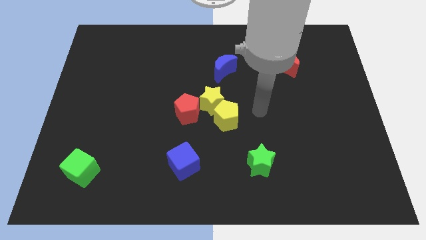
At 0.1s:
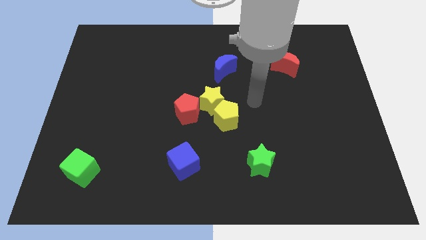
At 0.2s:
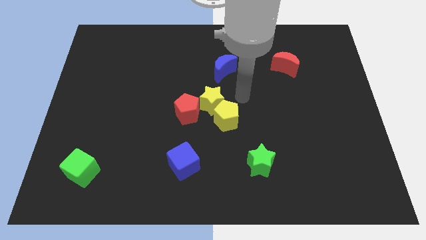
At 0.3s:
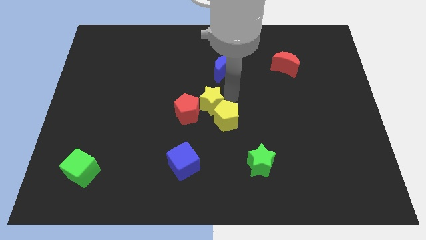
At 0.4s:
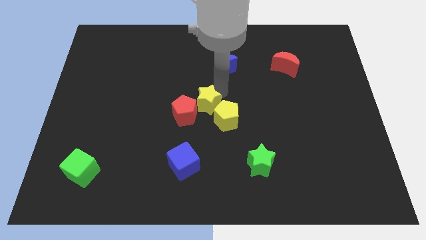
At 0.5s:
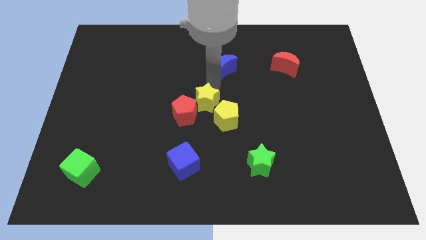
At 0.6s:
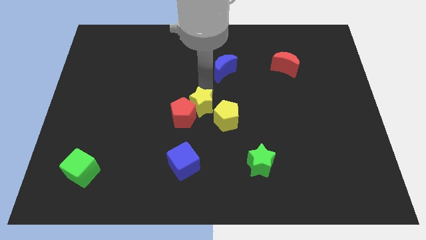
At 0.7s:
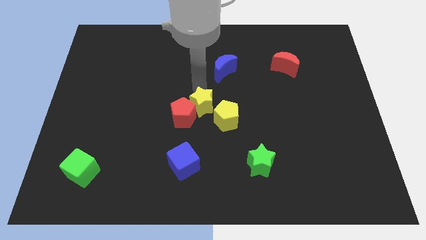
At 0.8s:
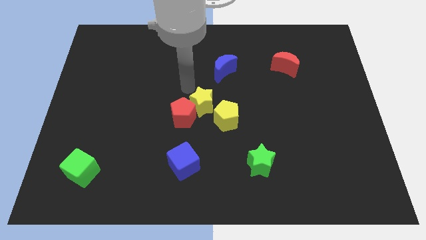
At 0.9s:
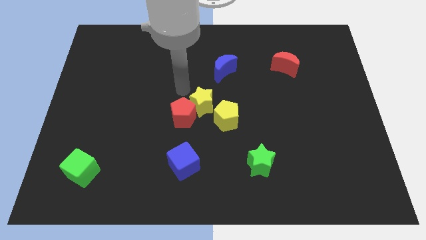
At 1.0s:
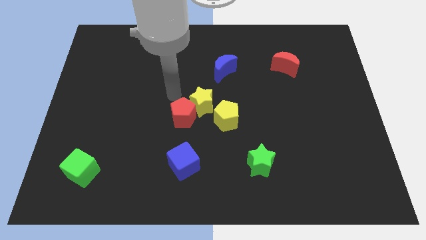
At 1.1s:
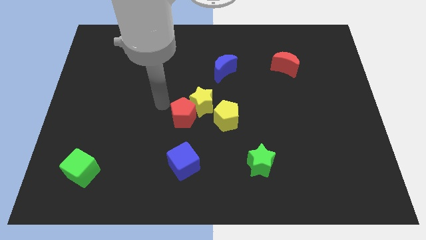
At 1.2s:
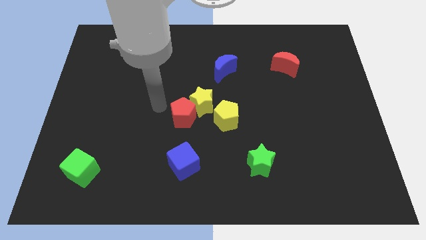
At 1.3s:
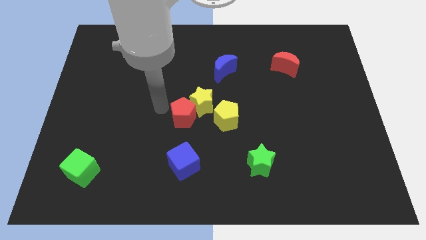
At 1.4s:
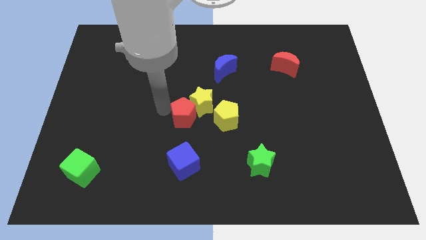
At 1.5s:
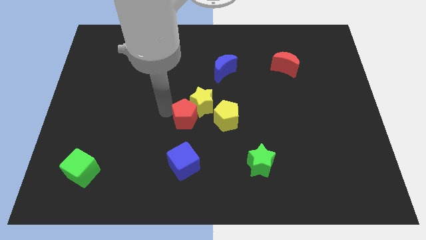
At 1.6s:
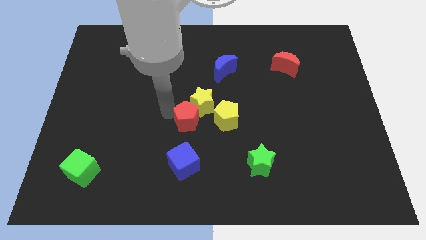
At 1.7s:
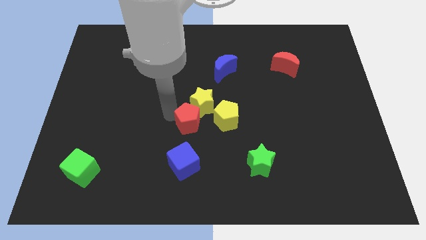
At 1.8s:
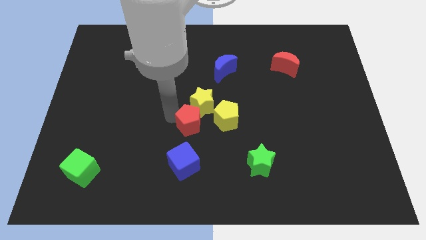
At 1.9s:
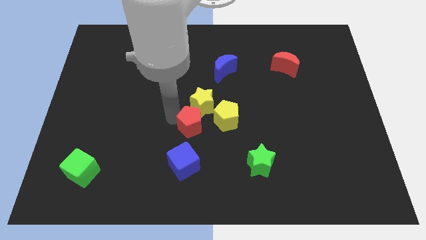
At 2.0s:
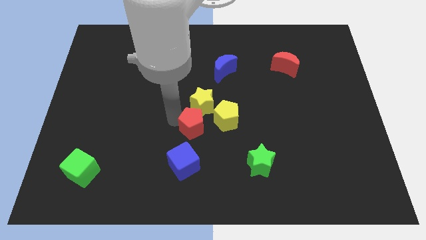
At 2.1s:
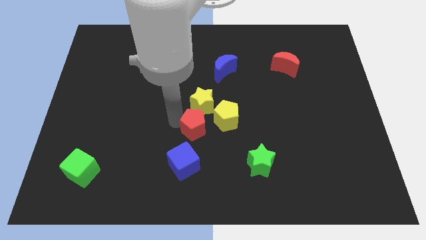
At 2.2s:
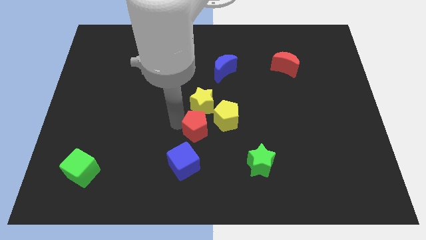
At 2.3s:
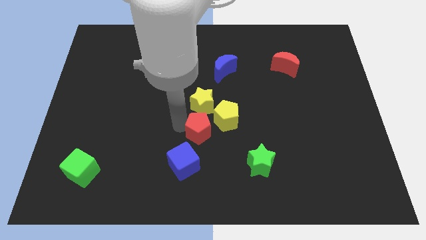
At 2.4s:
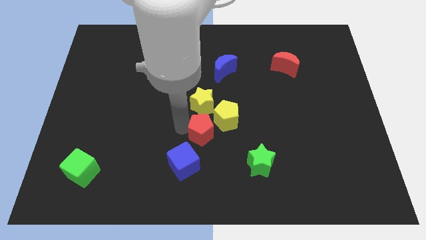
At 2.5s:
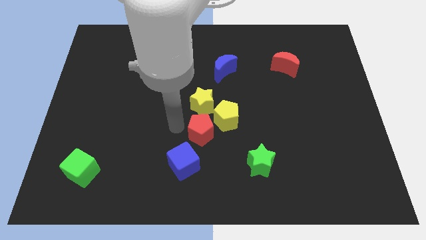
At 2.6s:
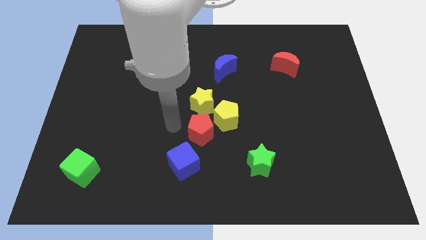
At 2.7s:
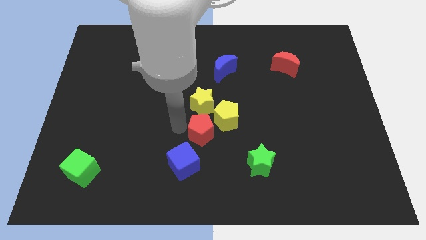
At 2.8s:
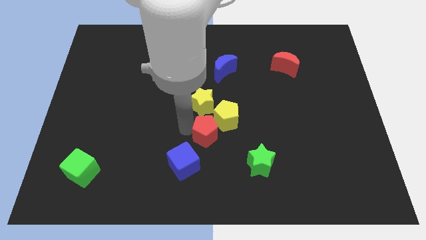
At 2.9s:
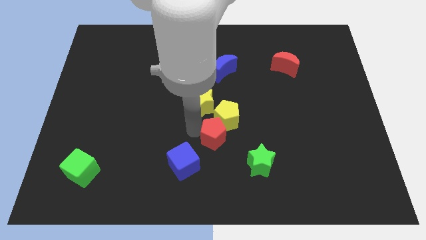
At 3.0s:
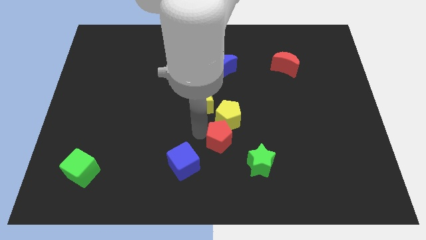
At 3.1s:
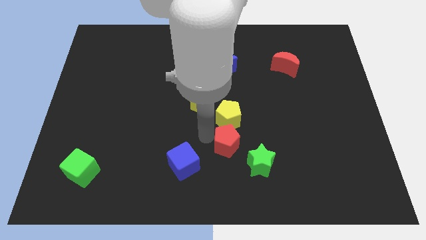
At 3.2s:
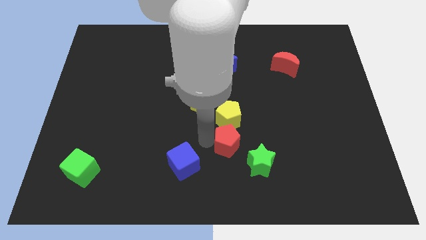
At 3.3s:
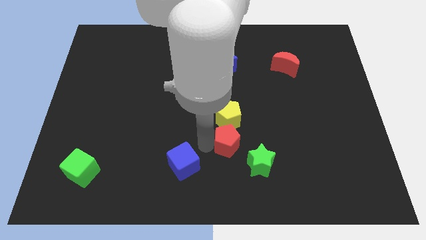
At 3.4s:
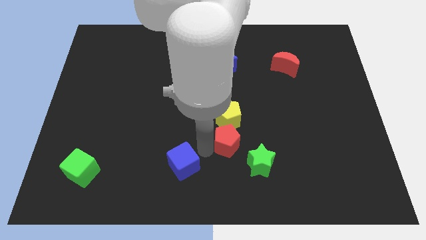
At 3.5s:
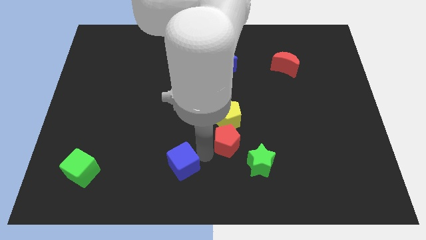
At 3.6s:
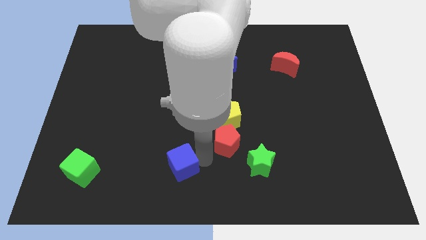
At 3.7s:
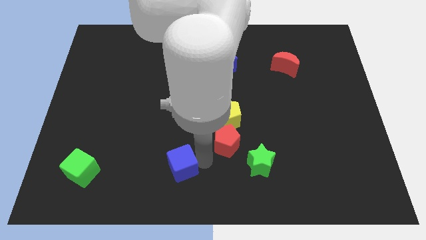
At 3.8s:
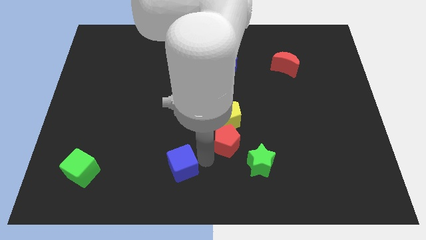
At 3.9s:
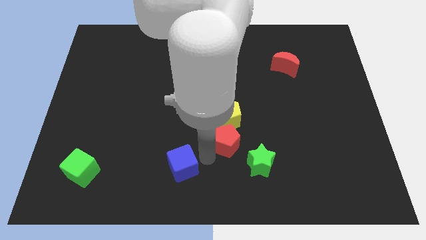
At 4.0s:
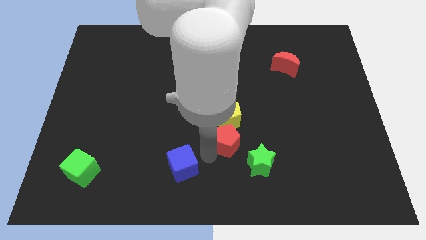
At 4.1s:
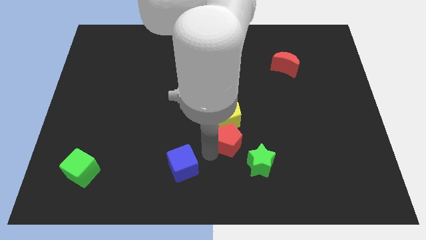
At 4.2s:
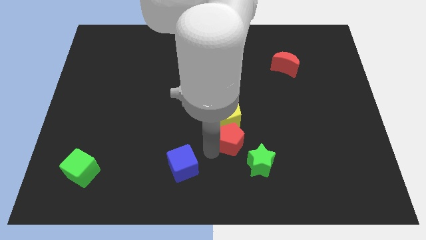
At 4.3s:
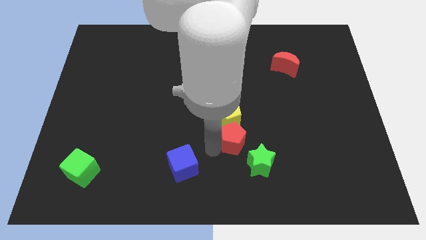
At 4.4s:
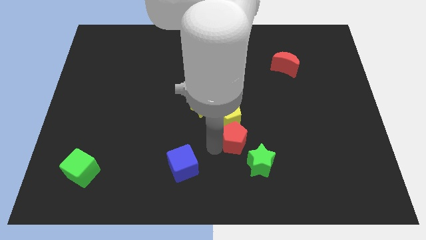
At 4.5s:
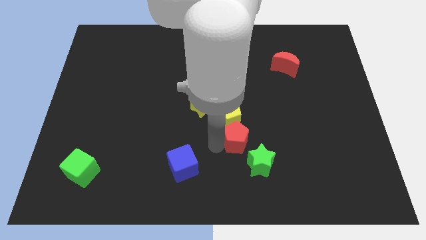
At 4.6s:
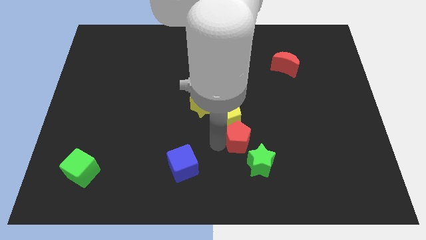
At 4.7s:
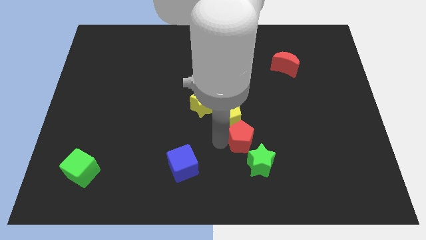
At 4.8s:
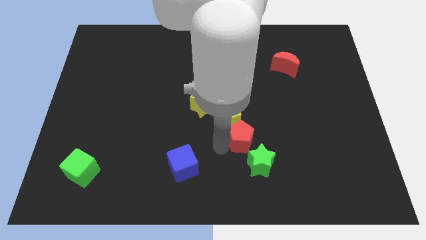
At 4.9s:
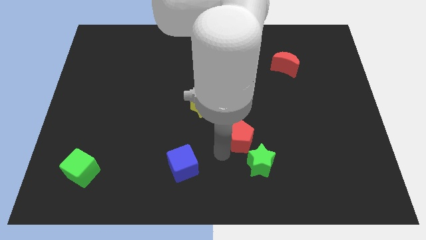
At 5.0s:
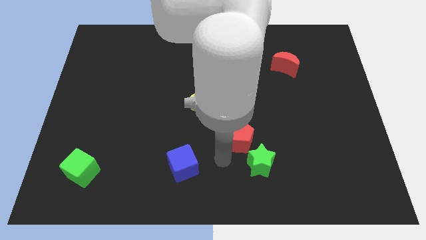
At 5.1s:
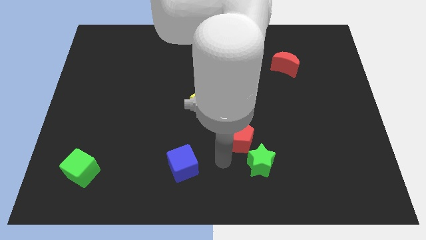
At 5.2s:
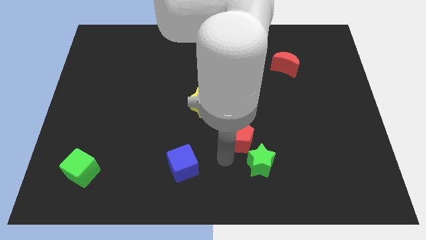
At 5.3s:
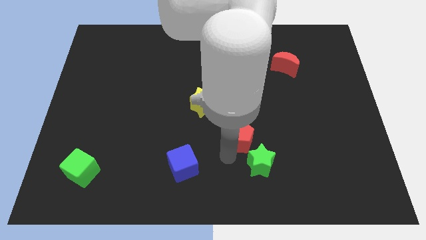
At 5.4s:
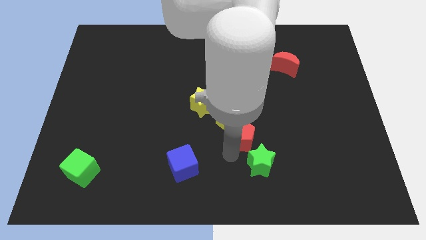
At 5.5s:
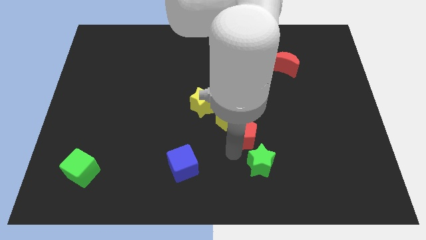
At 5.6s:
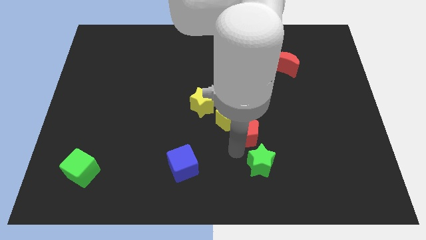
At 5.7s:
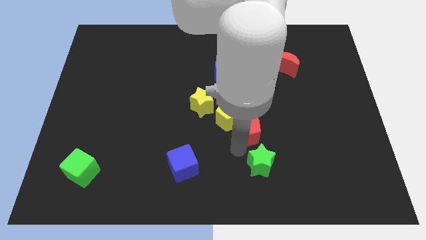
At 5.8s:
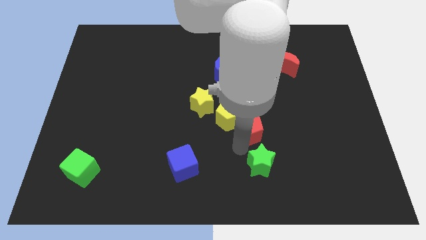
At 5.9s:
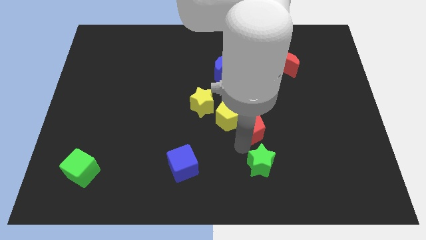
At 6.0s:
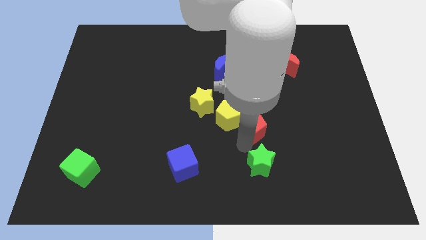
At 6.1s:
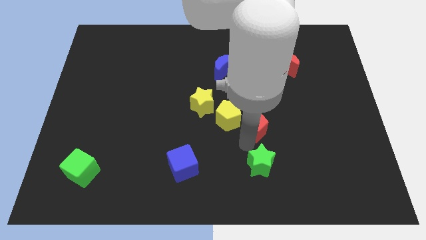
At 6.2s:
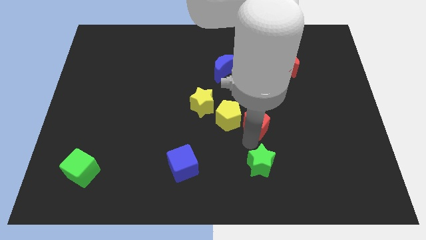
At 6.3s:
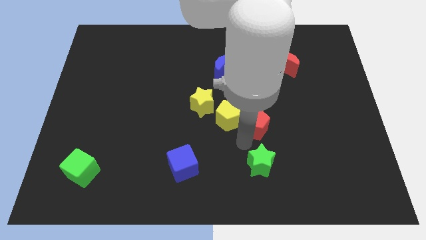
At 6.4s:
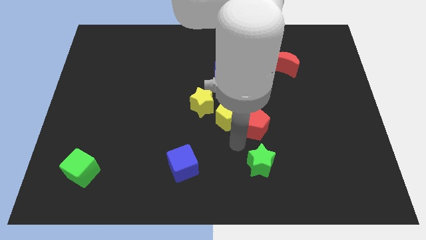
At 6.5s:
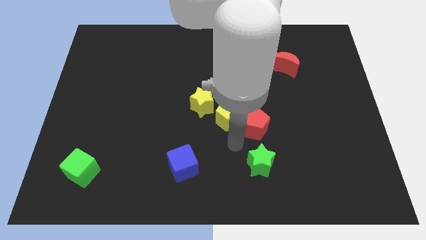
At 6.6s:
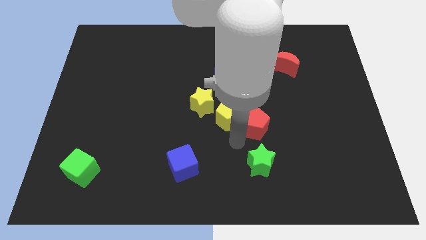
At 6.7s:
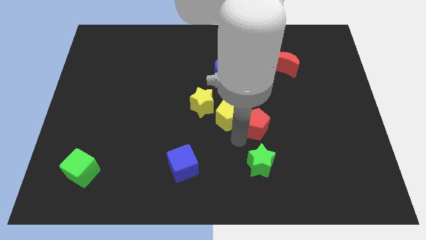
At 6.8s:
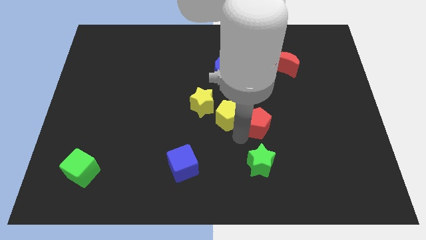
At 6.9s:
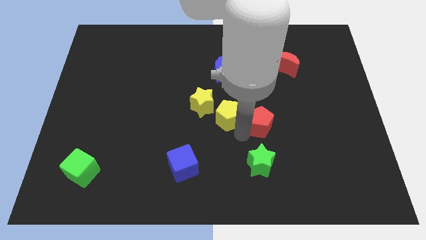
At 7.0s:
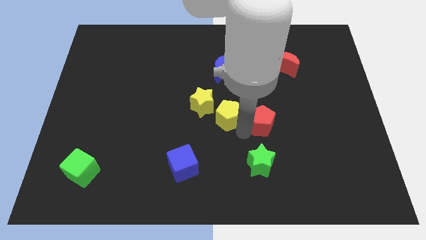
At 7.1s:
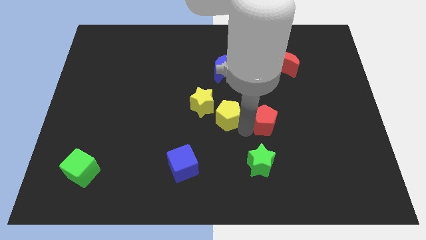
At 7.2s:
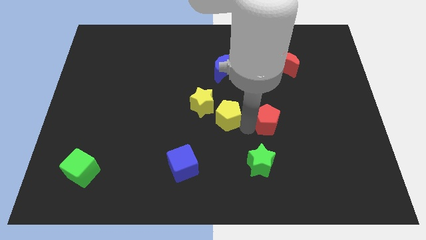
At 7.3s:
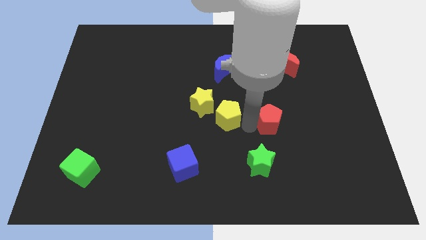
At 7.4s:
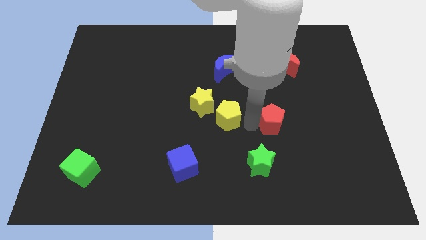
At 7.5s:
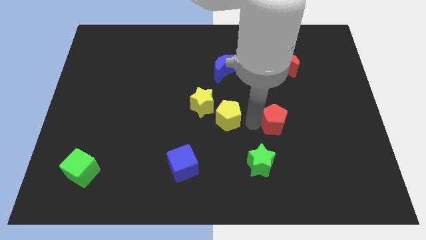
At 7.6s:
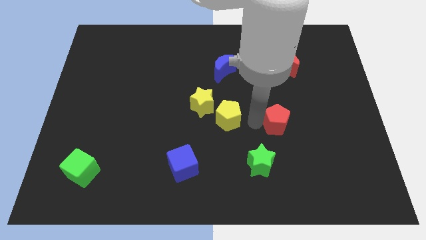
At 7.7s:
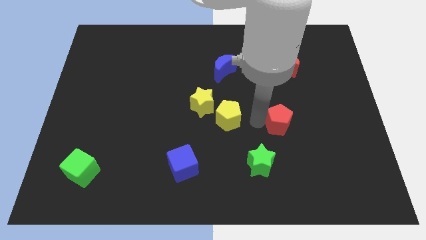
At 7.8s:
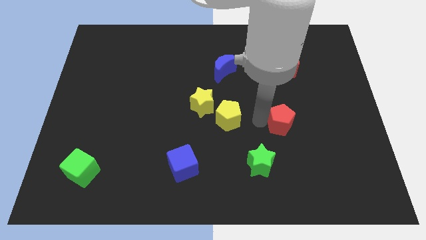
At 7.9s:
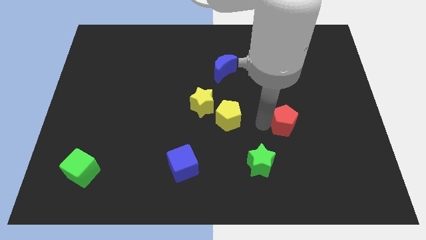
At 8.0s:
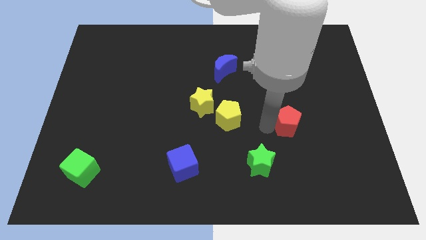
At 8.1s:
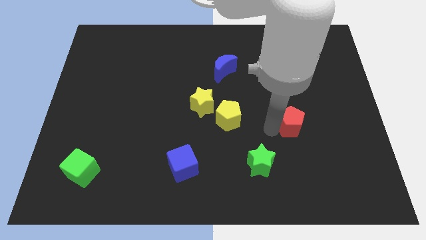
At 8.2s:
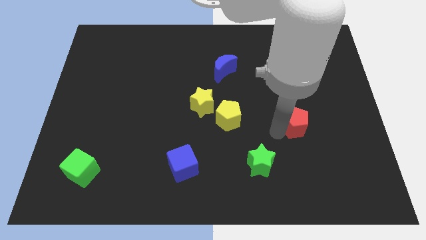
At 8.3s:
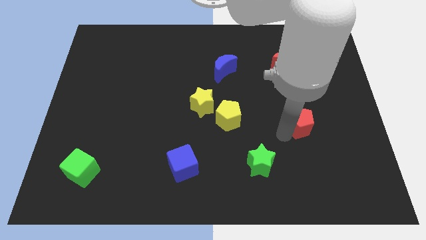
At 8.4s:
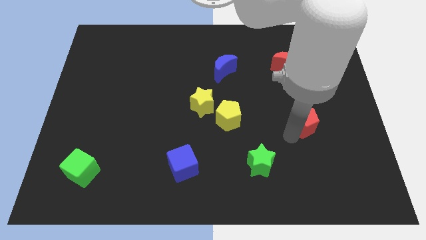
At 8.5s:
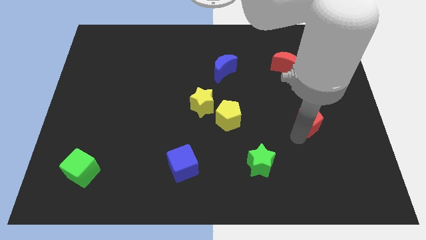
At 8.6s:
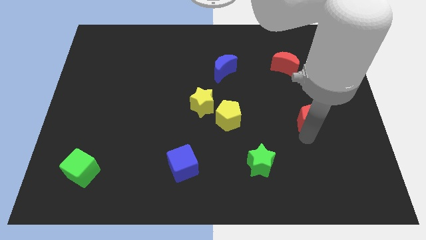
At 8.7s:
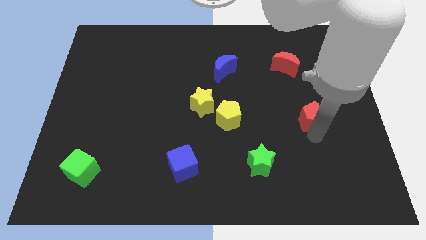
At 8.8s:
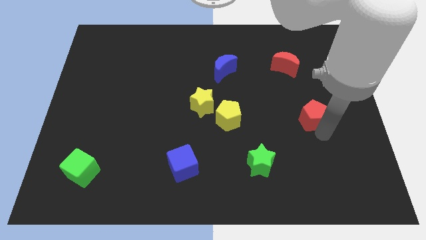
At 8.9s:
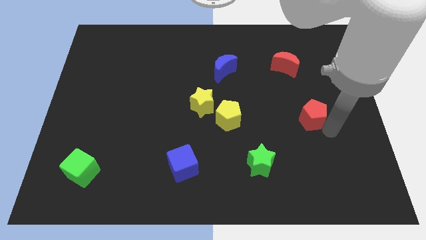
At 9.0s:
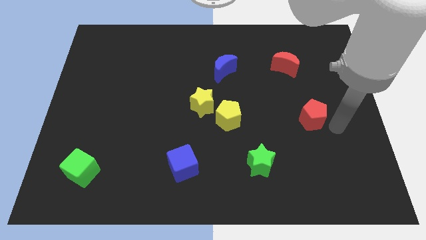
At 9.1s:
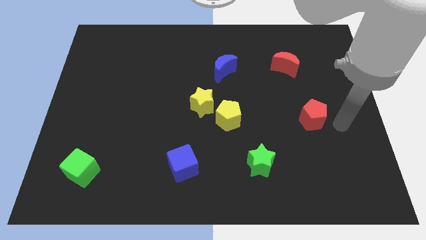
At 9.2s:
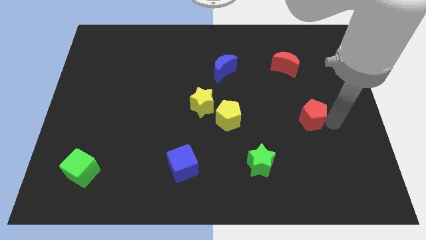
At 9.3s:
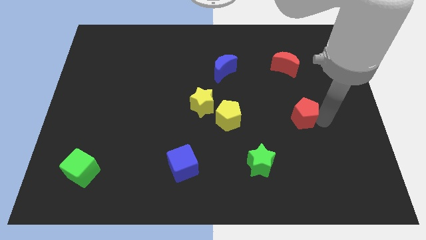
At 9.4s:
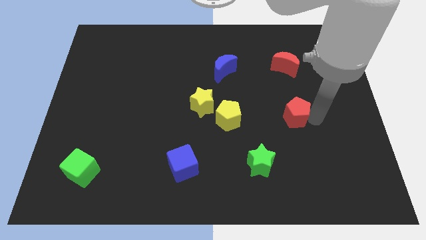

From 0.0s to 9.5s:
move the red pentagon to the bottom side of the red moon
